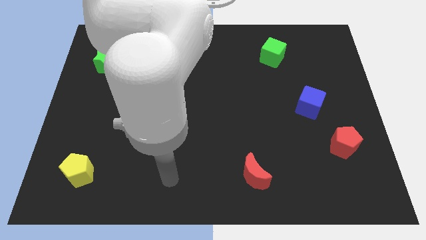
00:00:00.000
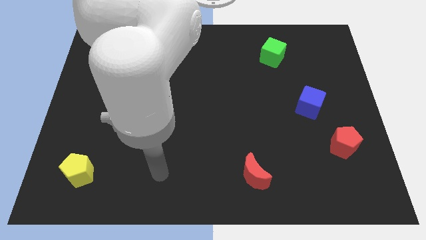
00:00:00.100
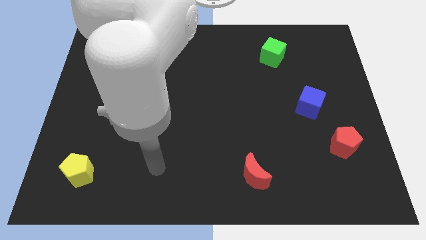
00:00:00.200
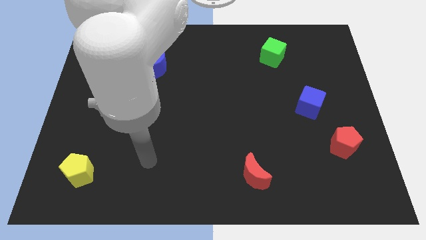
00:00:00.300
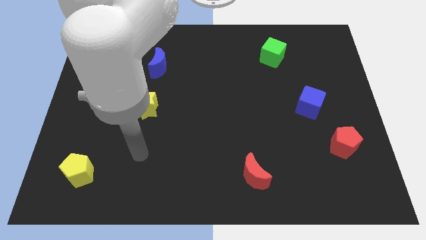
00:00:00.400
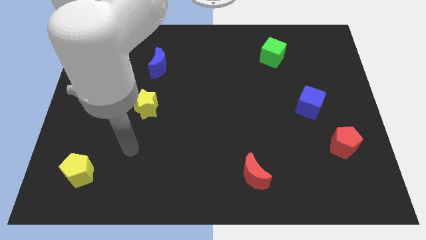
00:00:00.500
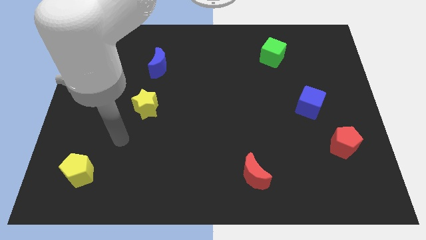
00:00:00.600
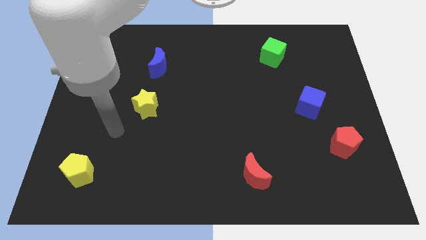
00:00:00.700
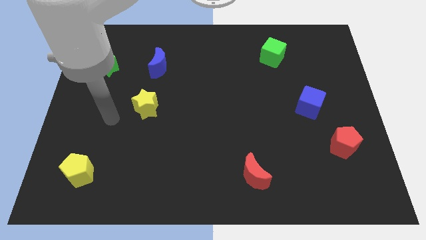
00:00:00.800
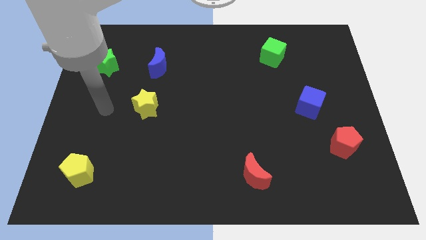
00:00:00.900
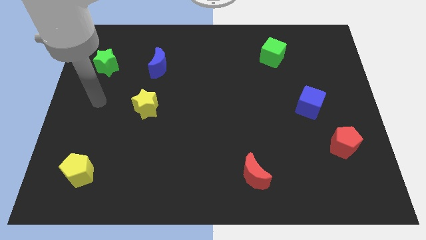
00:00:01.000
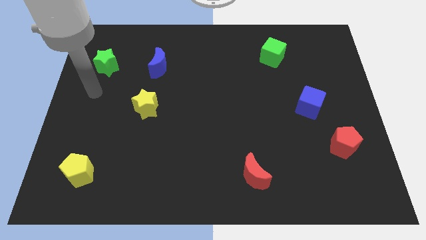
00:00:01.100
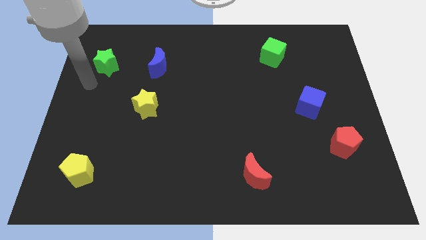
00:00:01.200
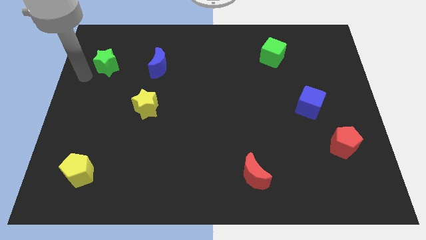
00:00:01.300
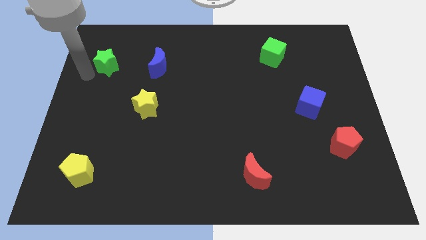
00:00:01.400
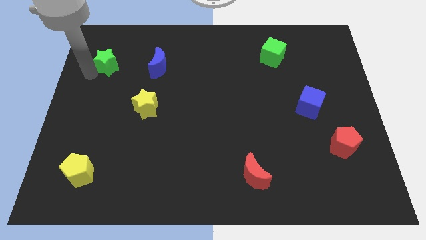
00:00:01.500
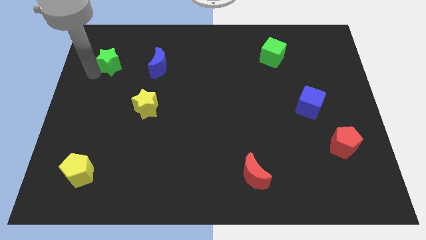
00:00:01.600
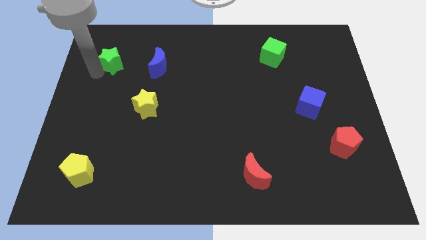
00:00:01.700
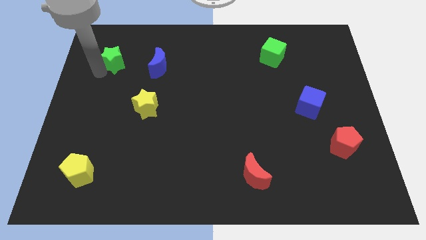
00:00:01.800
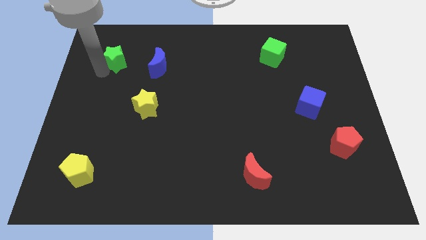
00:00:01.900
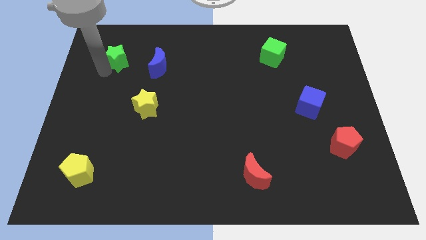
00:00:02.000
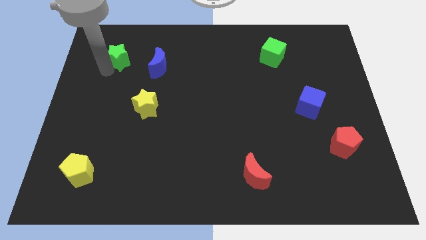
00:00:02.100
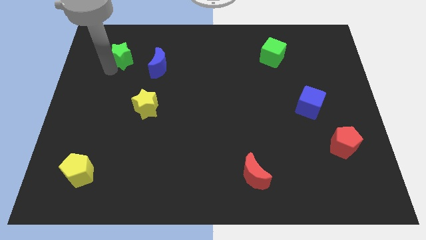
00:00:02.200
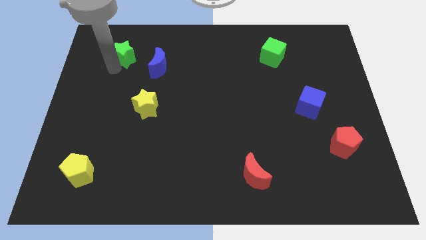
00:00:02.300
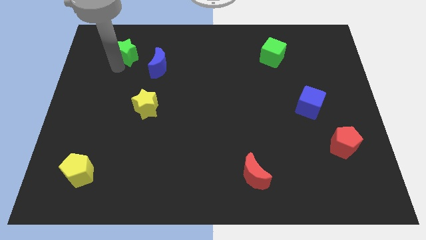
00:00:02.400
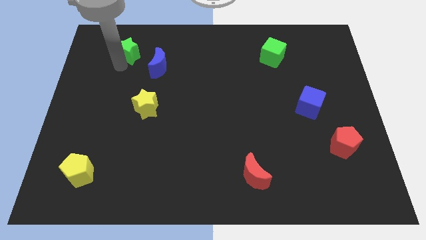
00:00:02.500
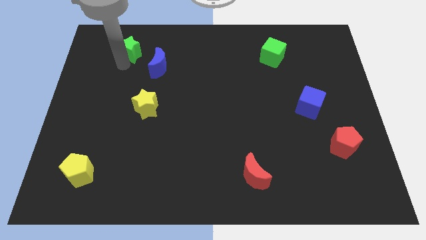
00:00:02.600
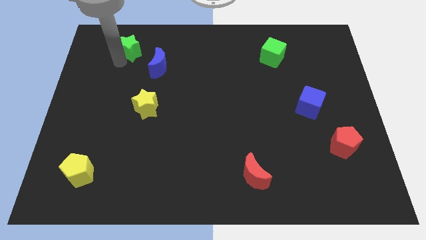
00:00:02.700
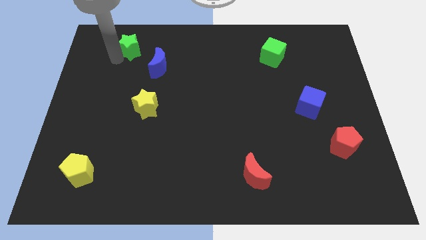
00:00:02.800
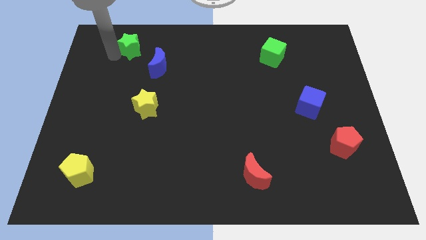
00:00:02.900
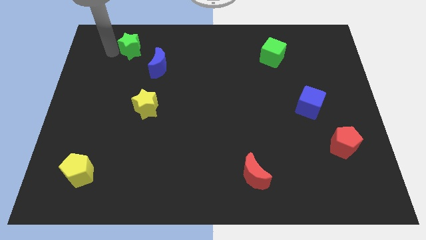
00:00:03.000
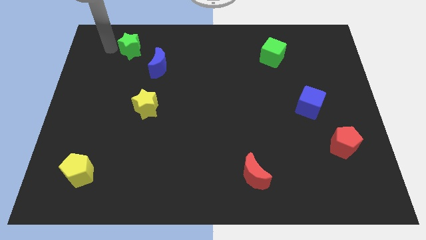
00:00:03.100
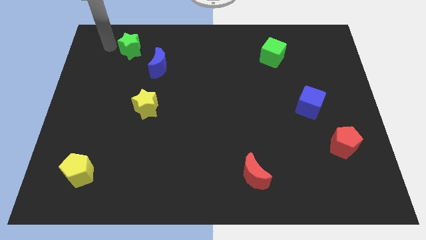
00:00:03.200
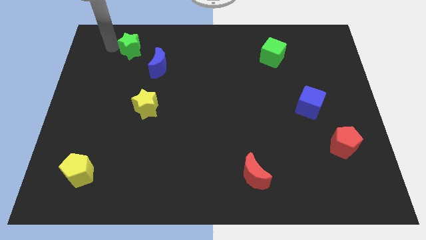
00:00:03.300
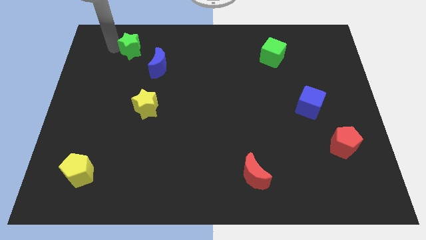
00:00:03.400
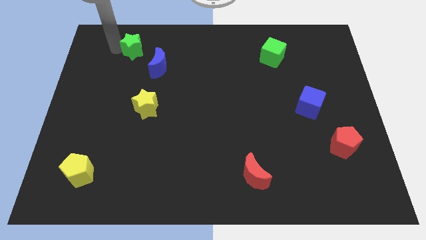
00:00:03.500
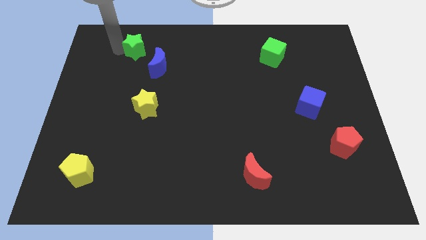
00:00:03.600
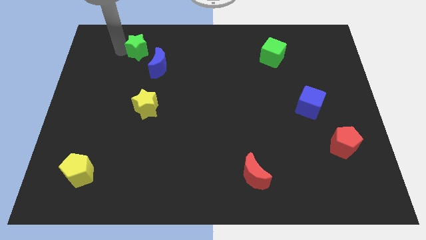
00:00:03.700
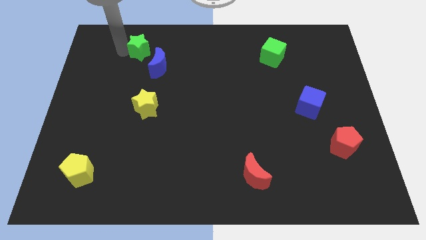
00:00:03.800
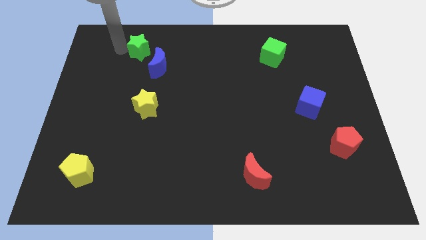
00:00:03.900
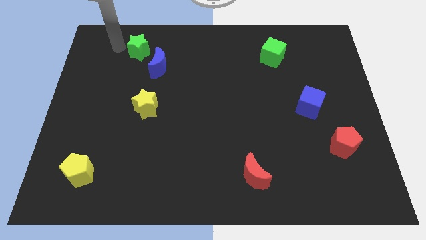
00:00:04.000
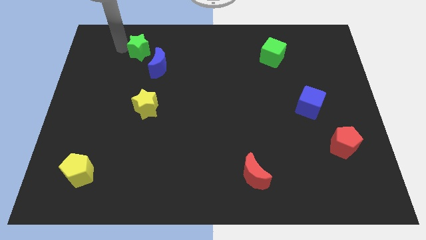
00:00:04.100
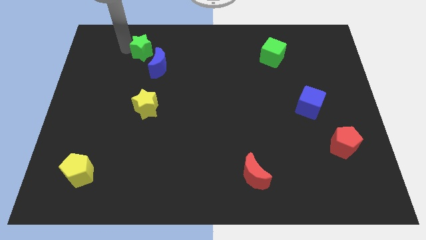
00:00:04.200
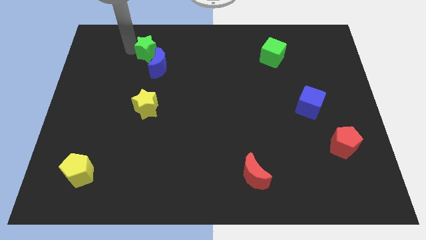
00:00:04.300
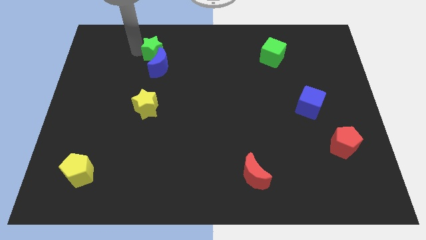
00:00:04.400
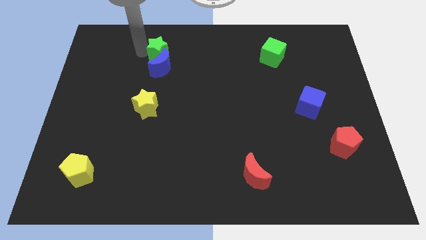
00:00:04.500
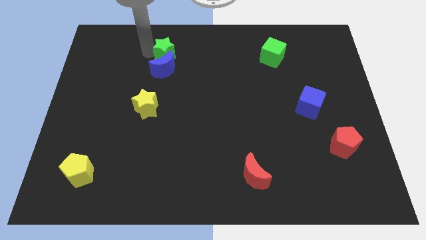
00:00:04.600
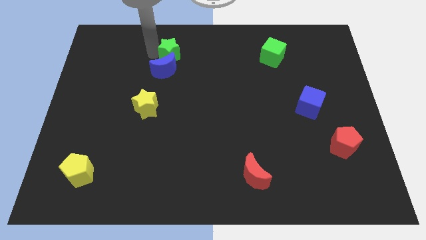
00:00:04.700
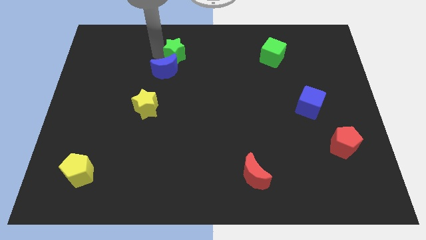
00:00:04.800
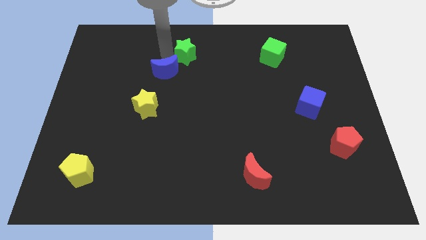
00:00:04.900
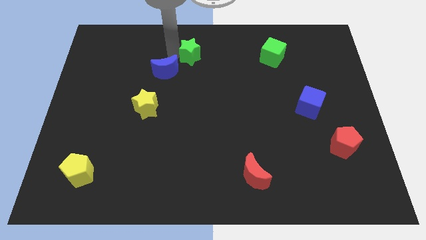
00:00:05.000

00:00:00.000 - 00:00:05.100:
push the green star to the right

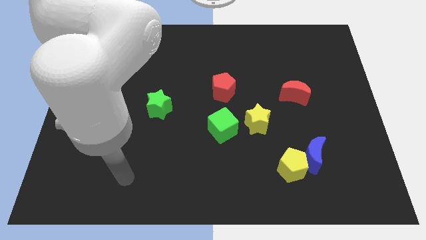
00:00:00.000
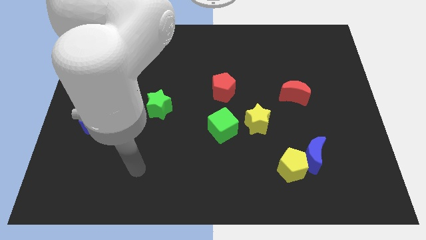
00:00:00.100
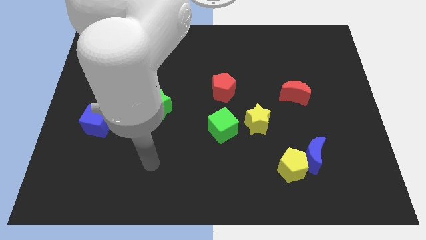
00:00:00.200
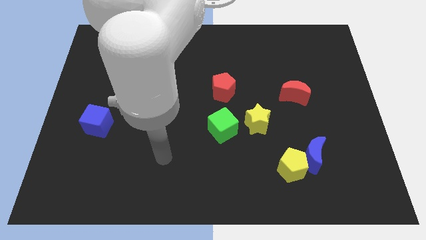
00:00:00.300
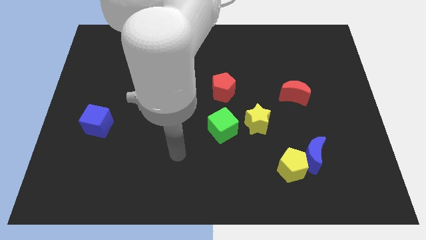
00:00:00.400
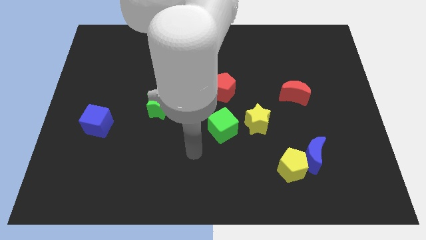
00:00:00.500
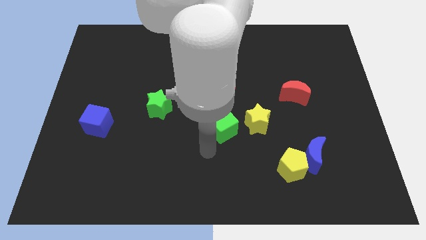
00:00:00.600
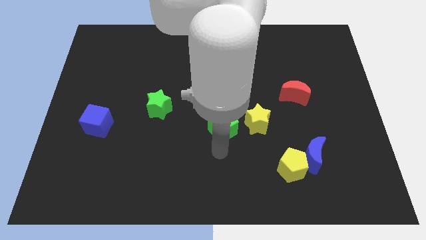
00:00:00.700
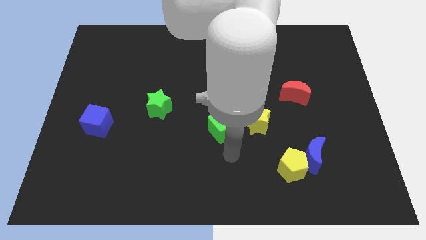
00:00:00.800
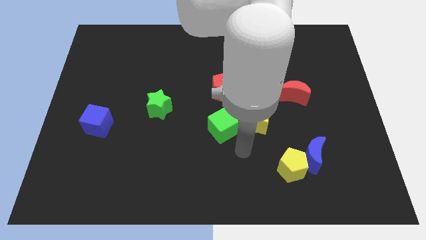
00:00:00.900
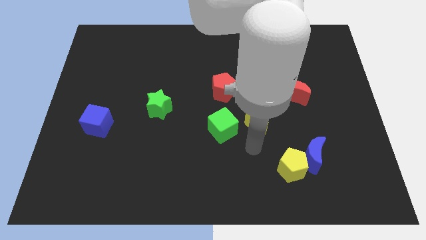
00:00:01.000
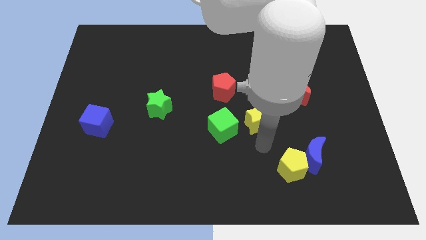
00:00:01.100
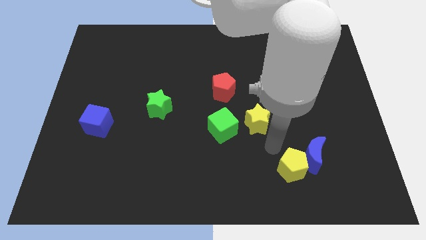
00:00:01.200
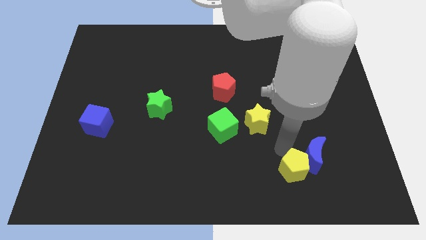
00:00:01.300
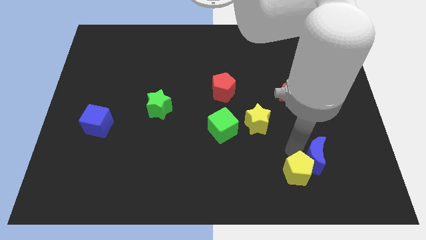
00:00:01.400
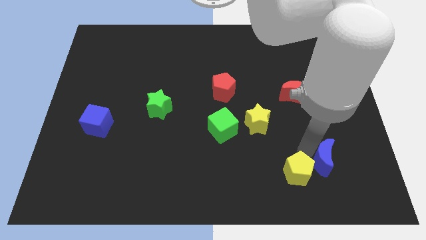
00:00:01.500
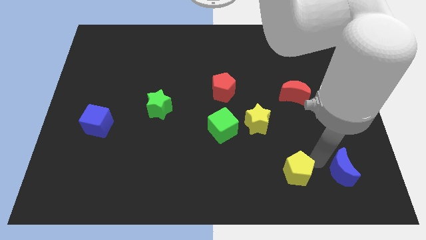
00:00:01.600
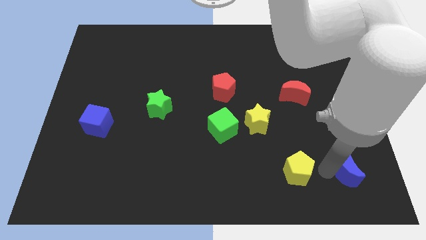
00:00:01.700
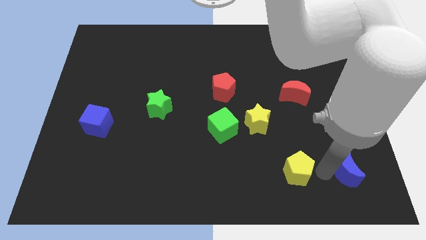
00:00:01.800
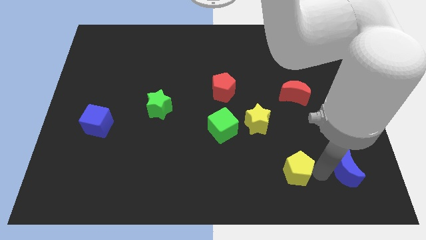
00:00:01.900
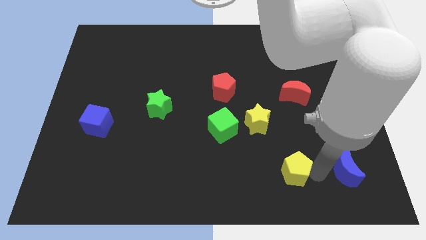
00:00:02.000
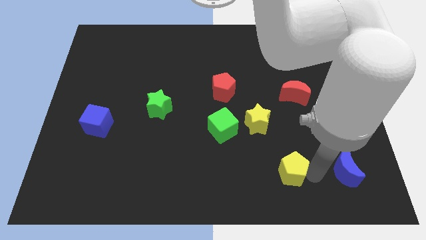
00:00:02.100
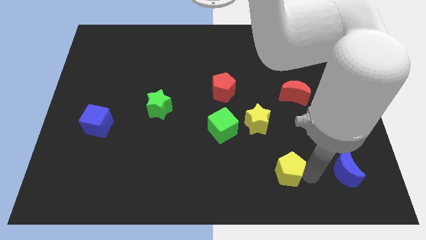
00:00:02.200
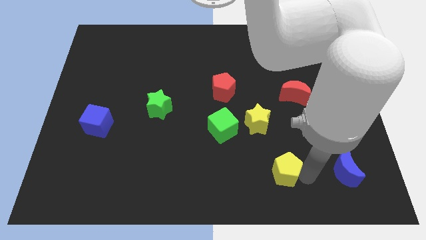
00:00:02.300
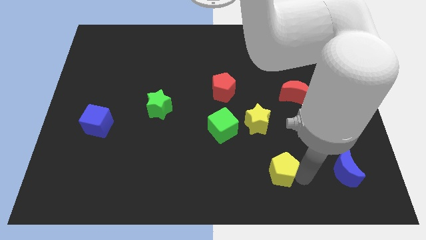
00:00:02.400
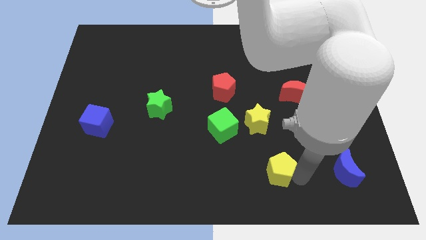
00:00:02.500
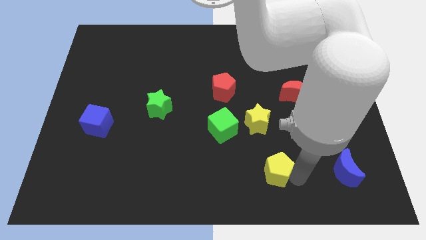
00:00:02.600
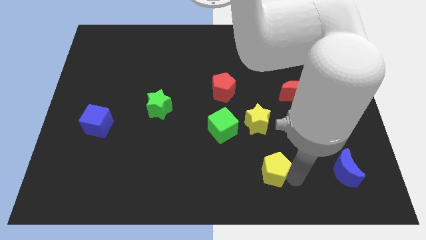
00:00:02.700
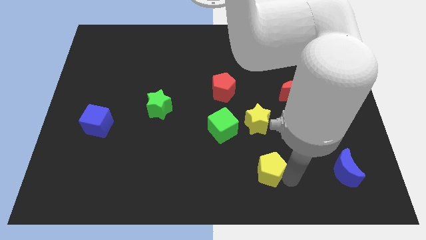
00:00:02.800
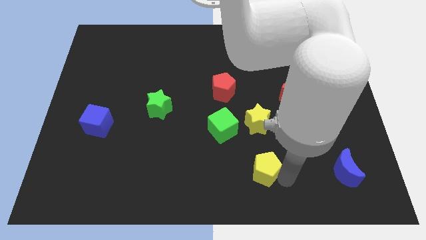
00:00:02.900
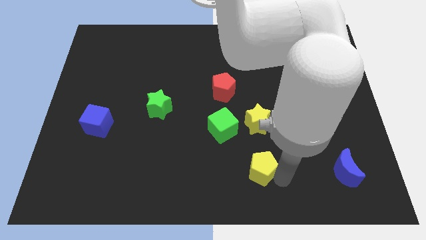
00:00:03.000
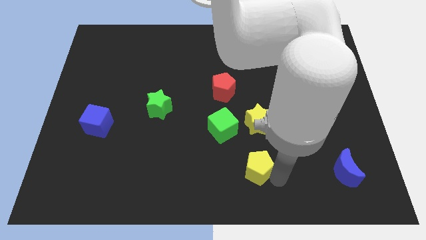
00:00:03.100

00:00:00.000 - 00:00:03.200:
slightly slide the yellow pentagon left
